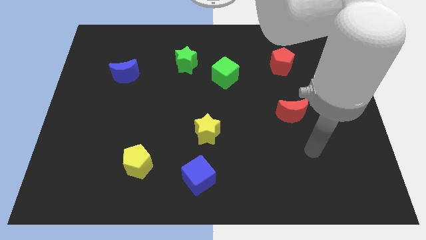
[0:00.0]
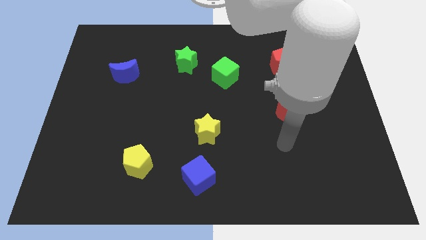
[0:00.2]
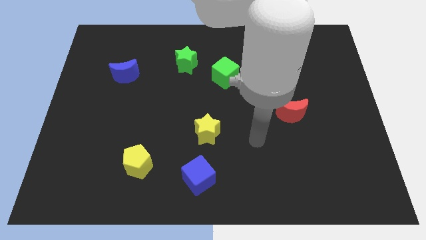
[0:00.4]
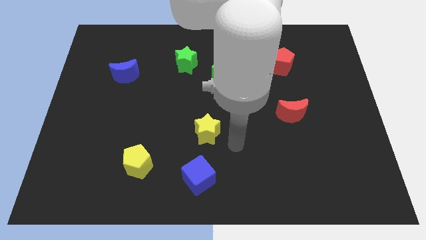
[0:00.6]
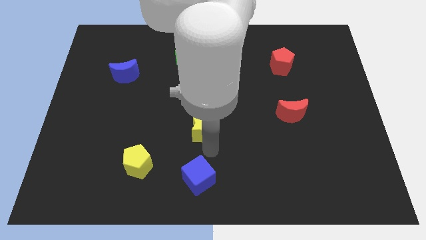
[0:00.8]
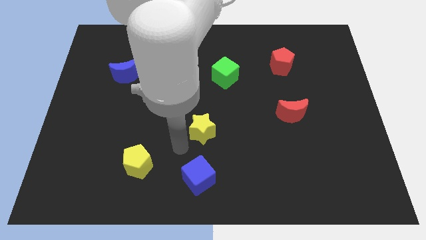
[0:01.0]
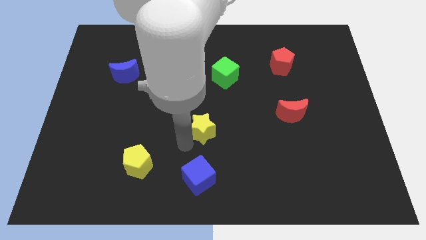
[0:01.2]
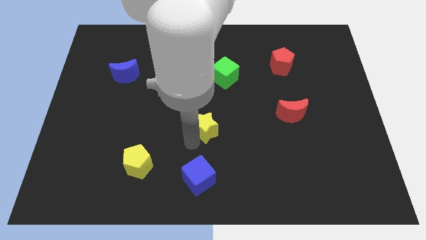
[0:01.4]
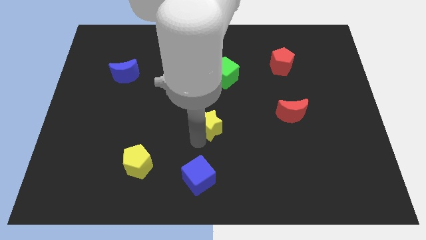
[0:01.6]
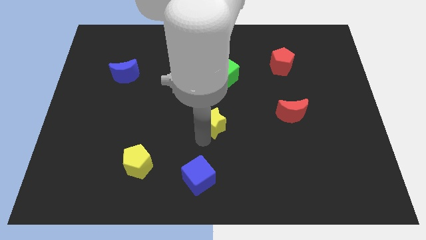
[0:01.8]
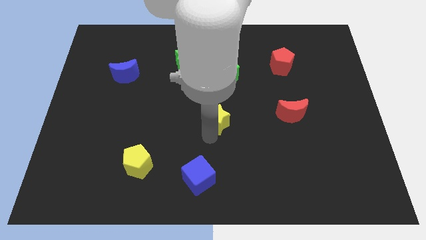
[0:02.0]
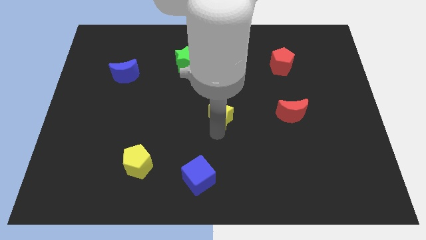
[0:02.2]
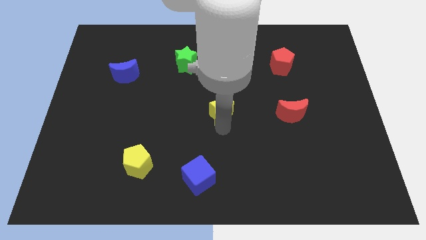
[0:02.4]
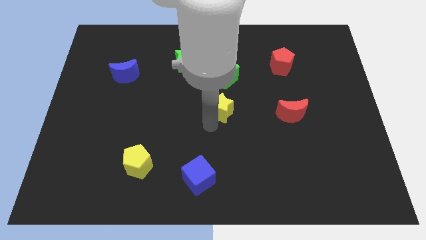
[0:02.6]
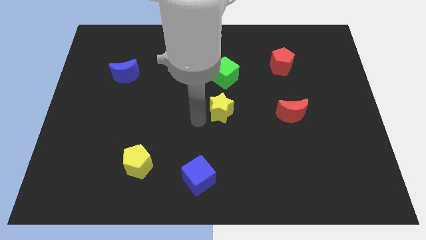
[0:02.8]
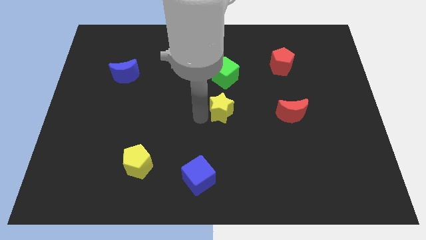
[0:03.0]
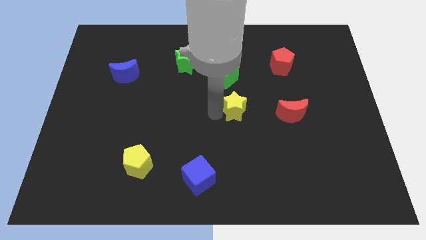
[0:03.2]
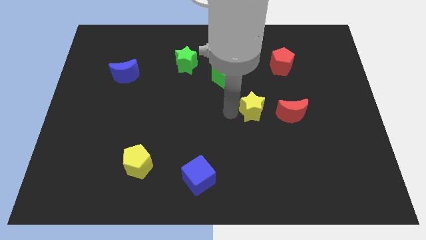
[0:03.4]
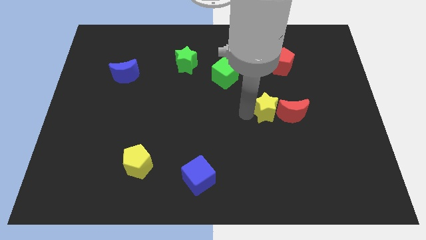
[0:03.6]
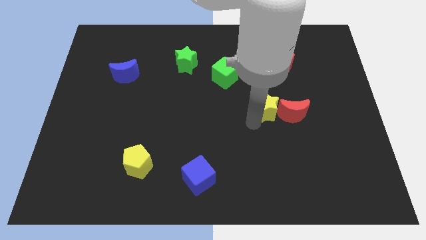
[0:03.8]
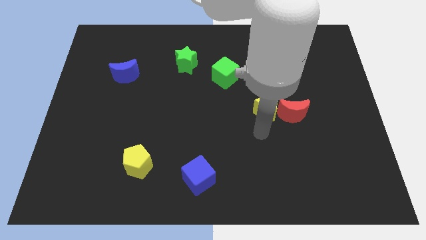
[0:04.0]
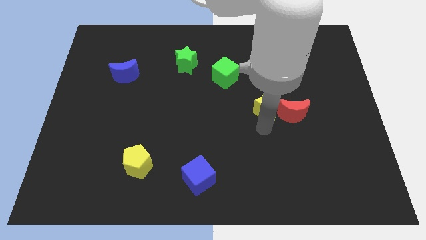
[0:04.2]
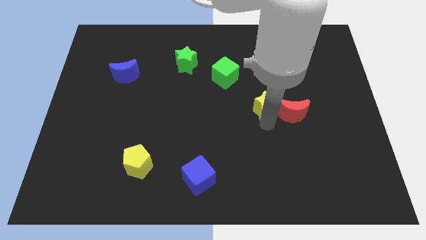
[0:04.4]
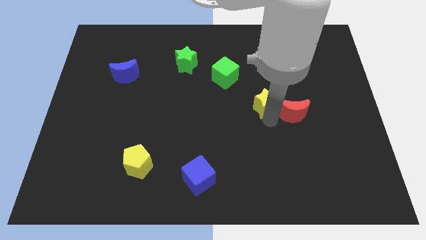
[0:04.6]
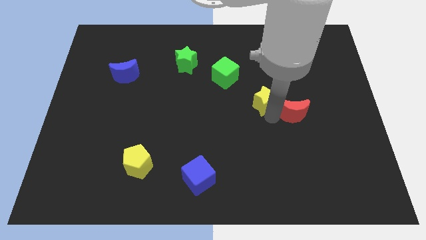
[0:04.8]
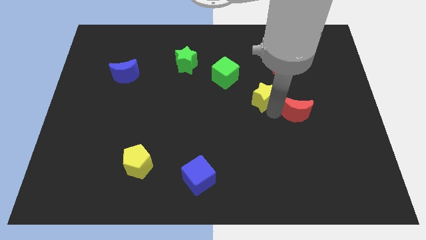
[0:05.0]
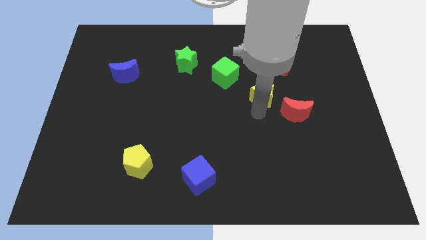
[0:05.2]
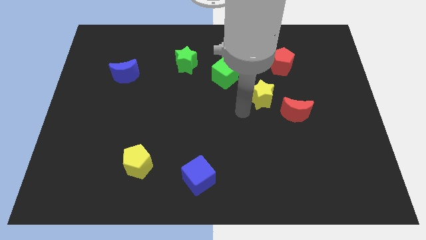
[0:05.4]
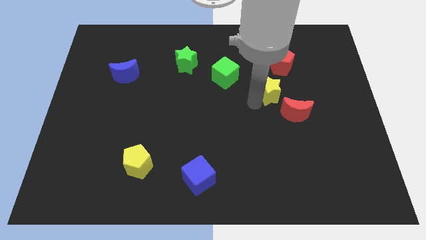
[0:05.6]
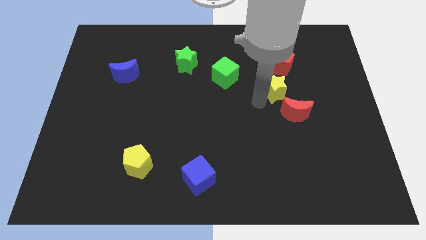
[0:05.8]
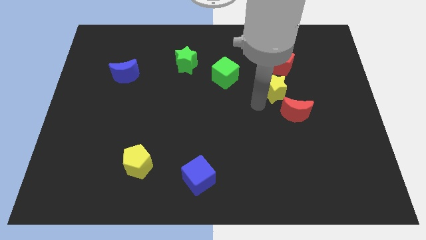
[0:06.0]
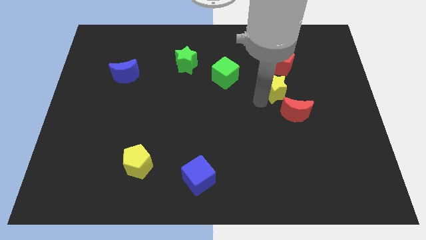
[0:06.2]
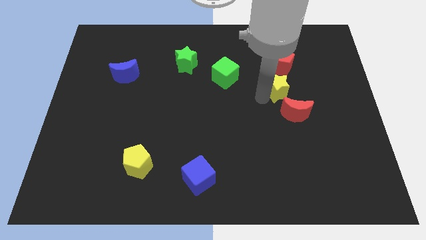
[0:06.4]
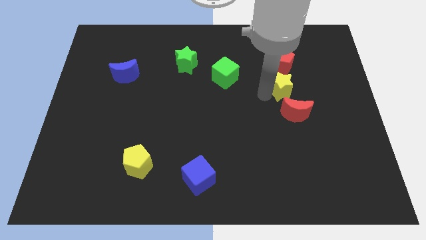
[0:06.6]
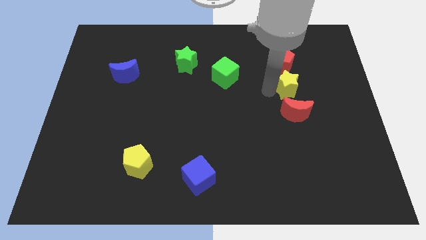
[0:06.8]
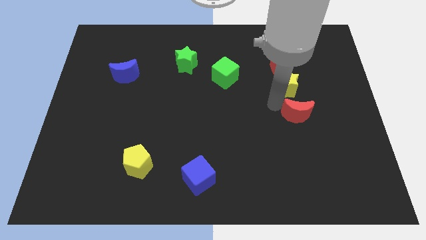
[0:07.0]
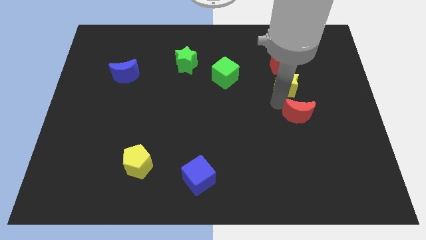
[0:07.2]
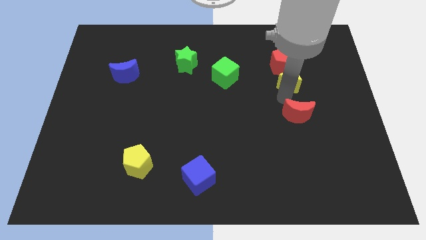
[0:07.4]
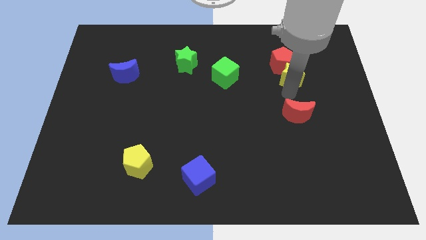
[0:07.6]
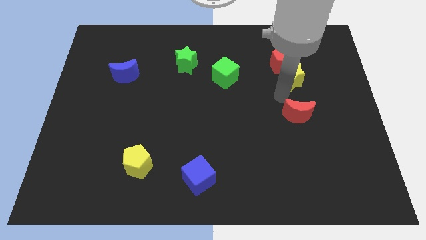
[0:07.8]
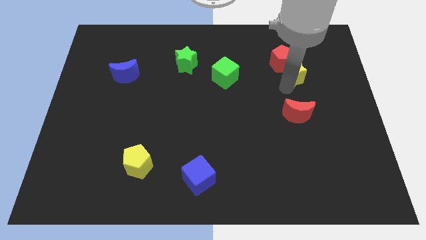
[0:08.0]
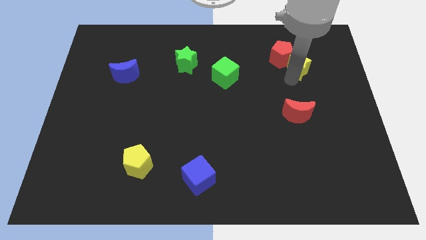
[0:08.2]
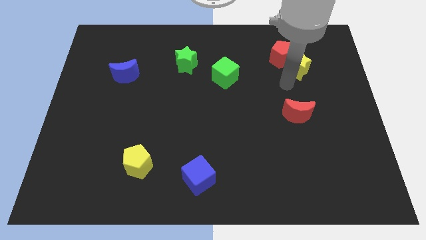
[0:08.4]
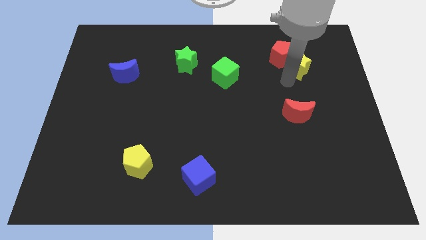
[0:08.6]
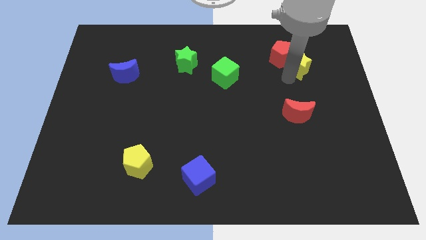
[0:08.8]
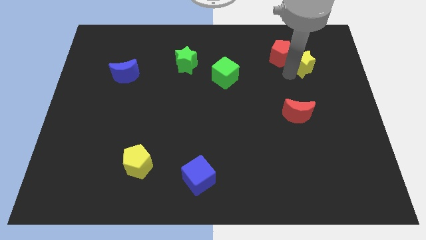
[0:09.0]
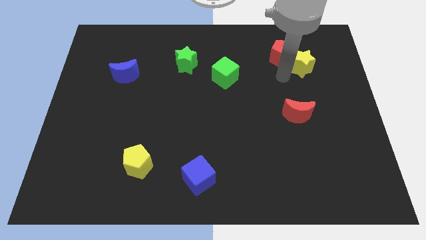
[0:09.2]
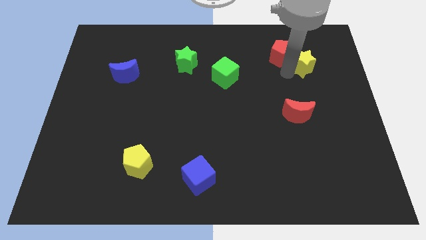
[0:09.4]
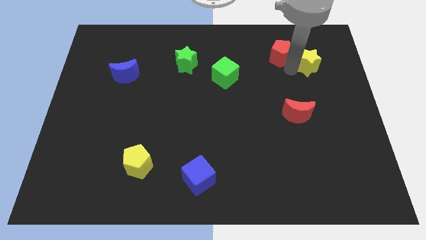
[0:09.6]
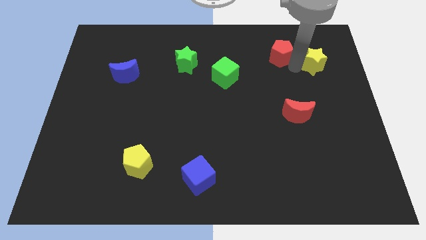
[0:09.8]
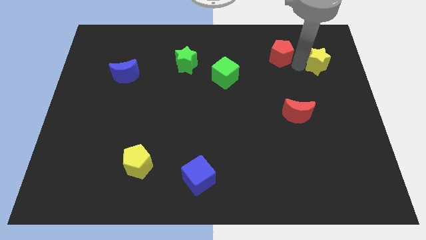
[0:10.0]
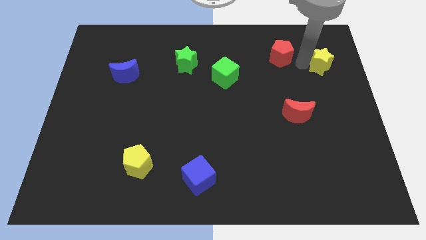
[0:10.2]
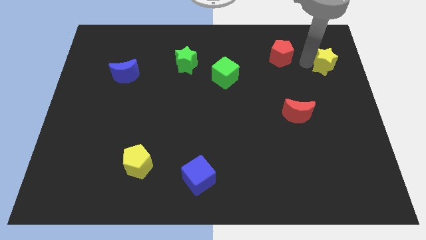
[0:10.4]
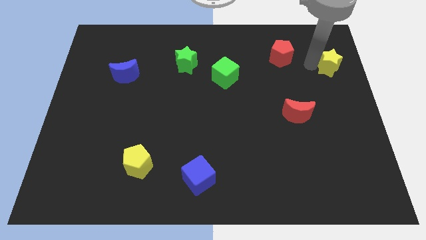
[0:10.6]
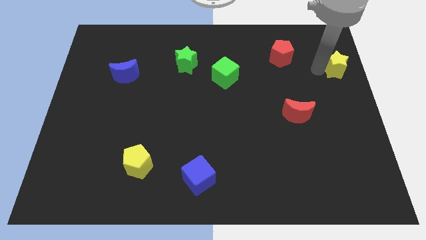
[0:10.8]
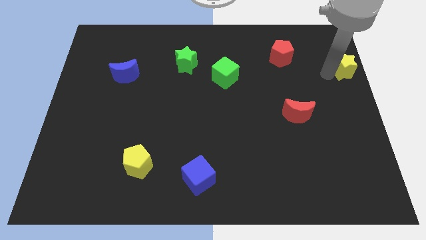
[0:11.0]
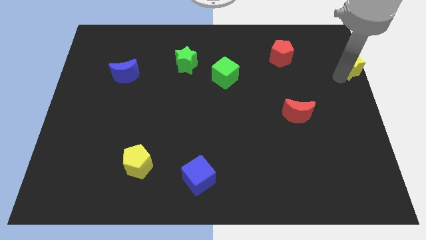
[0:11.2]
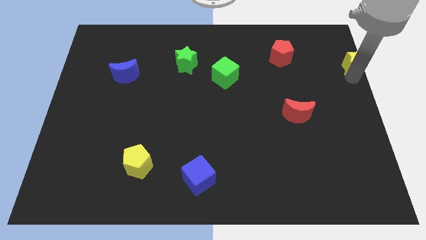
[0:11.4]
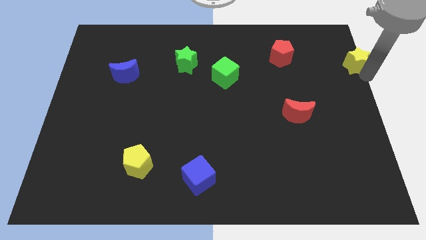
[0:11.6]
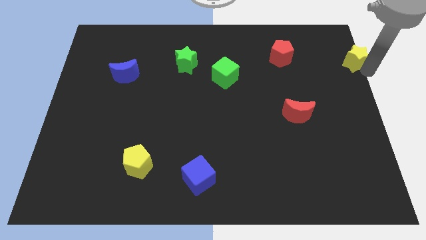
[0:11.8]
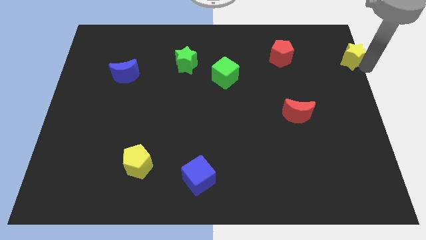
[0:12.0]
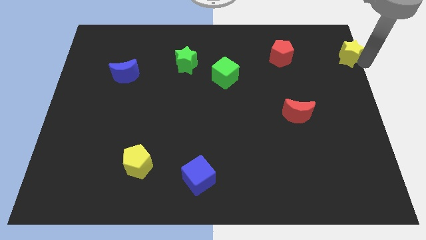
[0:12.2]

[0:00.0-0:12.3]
push the yellow star to the top right

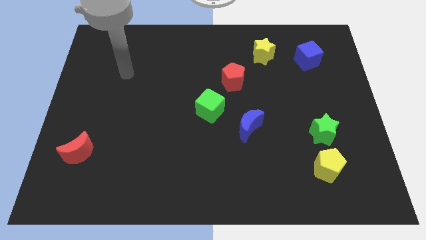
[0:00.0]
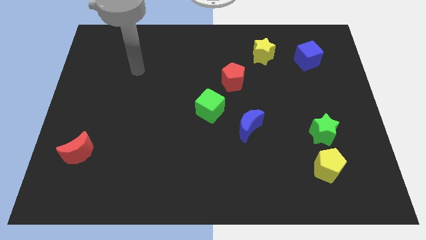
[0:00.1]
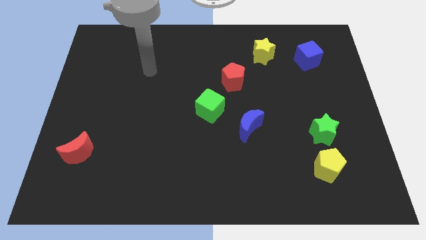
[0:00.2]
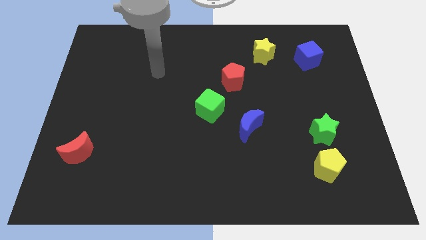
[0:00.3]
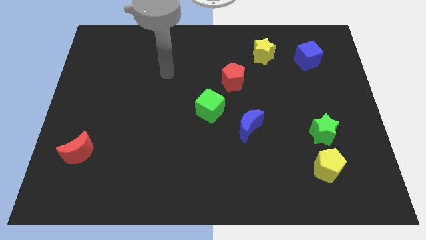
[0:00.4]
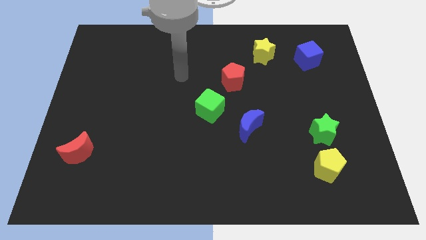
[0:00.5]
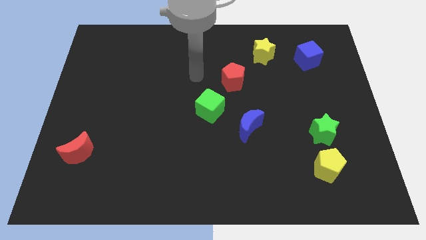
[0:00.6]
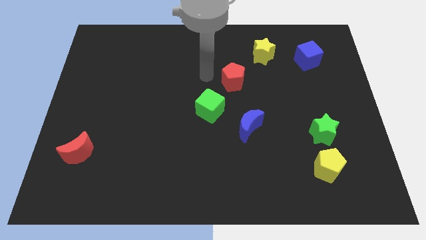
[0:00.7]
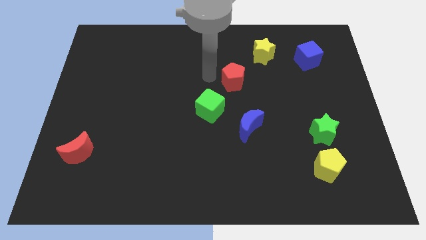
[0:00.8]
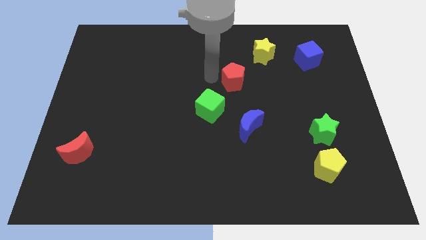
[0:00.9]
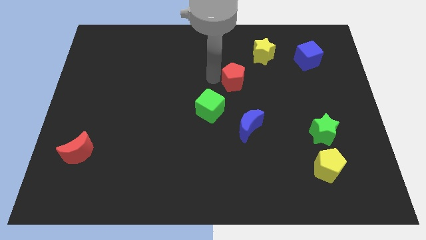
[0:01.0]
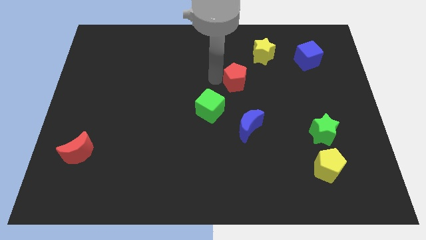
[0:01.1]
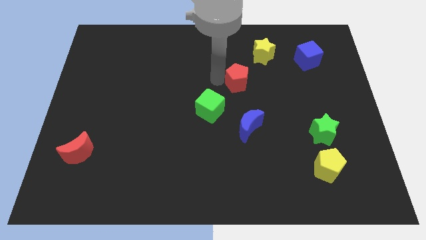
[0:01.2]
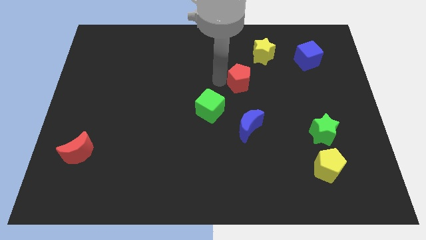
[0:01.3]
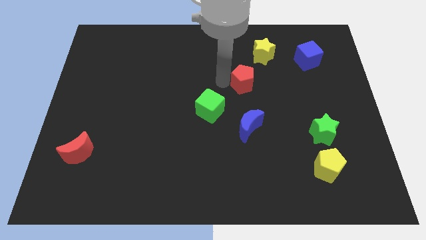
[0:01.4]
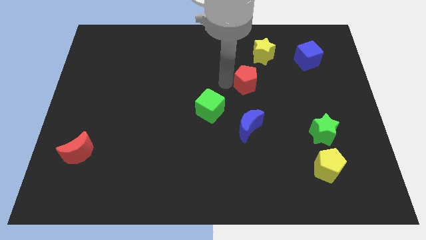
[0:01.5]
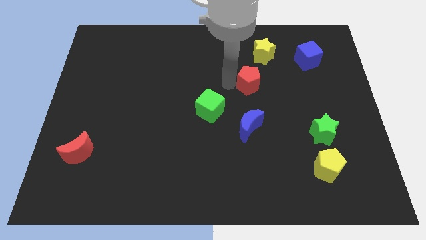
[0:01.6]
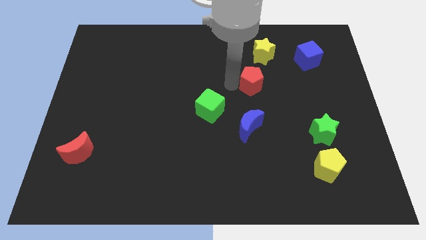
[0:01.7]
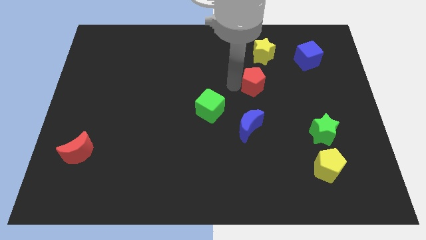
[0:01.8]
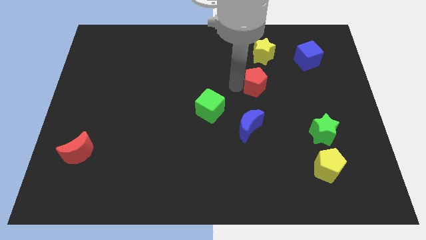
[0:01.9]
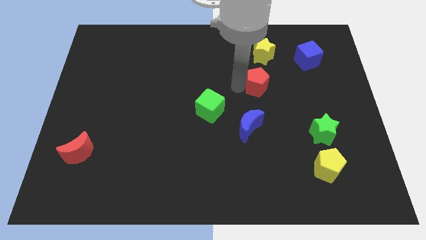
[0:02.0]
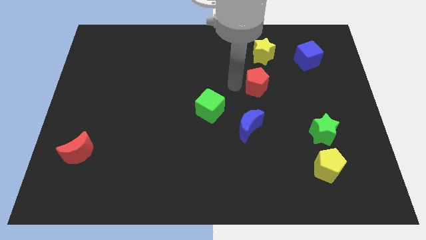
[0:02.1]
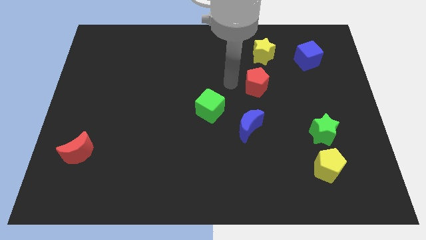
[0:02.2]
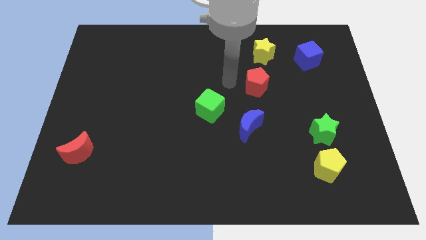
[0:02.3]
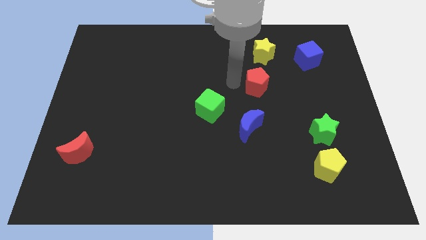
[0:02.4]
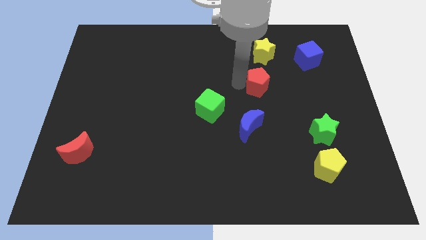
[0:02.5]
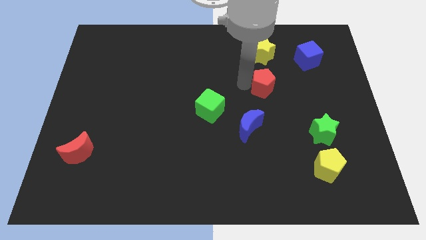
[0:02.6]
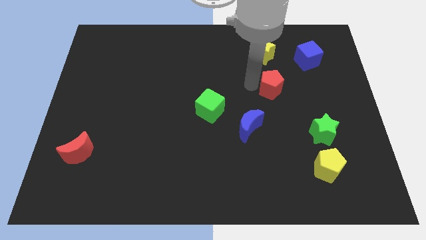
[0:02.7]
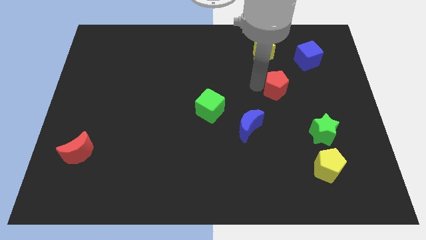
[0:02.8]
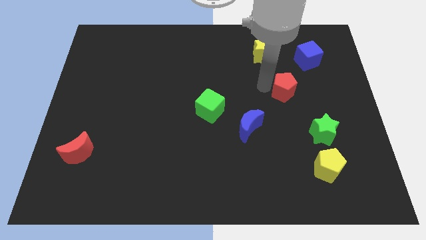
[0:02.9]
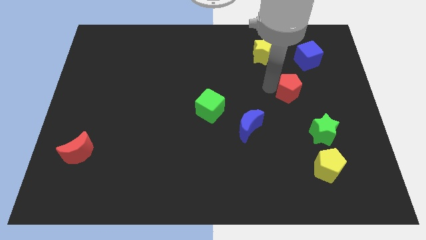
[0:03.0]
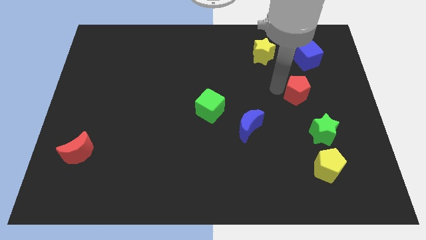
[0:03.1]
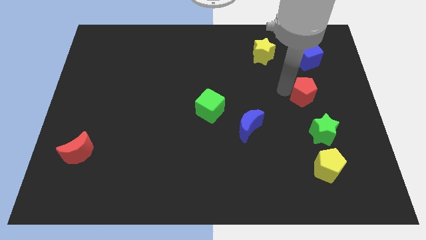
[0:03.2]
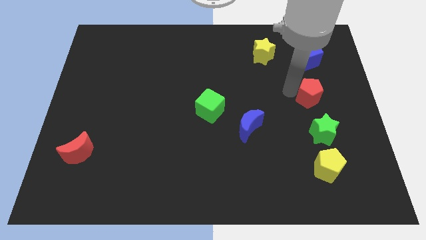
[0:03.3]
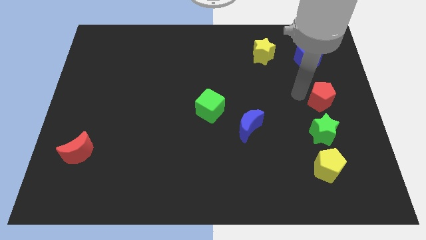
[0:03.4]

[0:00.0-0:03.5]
put the red pentagon to the right side
